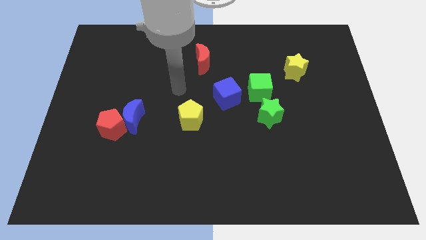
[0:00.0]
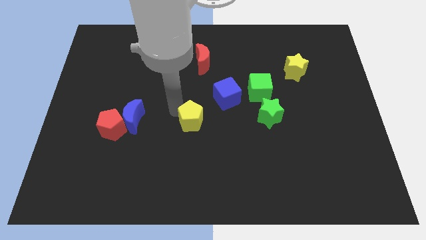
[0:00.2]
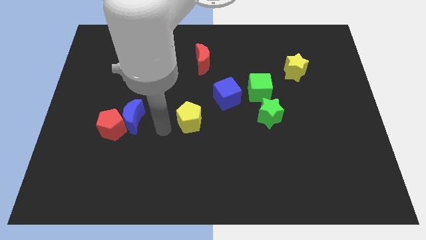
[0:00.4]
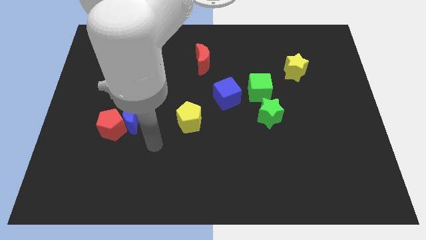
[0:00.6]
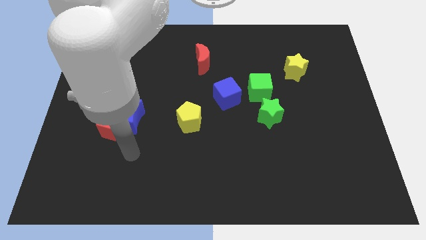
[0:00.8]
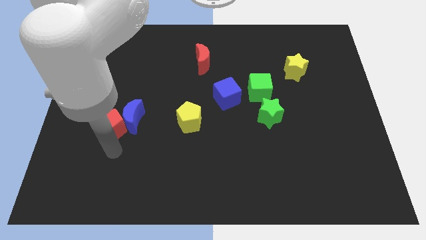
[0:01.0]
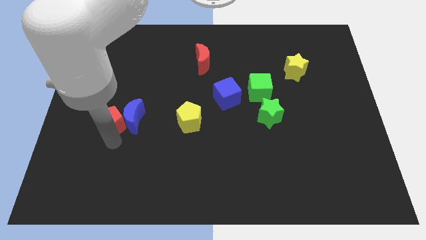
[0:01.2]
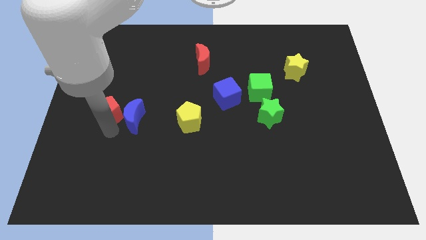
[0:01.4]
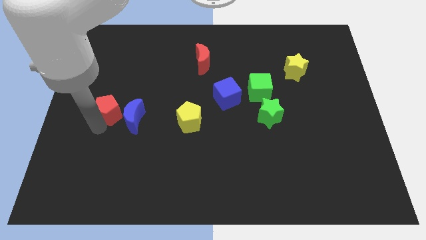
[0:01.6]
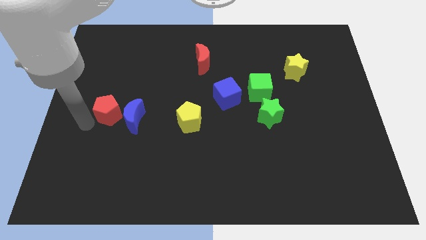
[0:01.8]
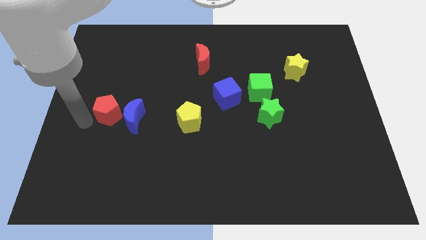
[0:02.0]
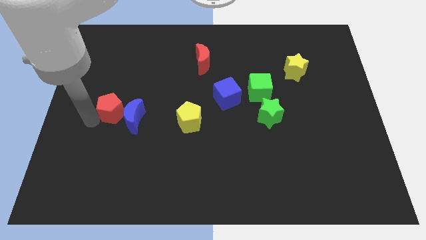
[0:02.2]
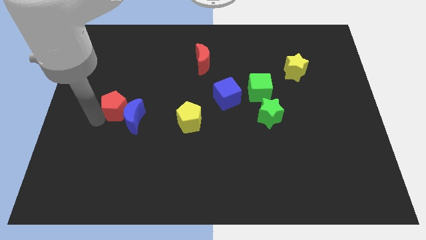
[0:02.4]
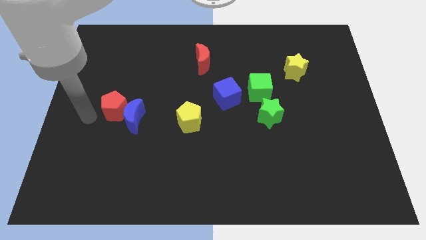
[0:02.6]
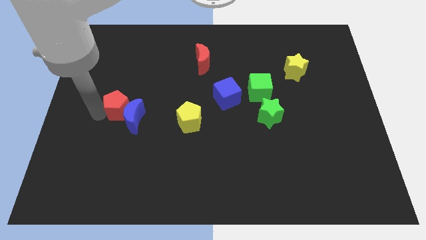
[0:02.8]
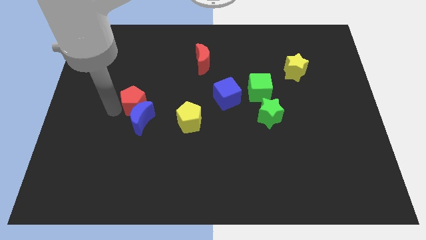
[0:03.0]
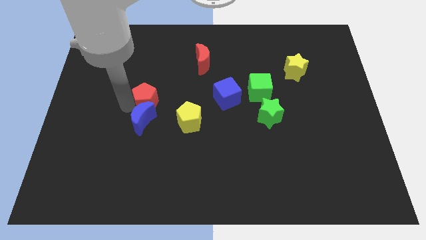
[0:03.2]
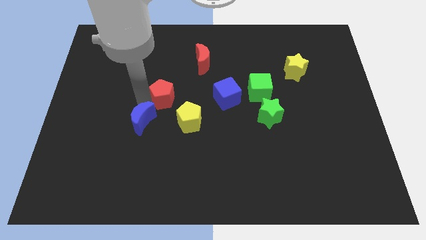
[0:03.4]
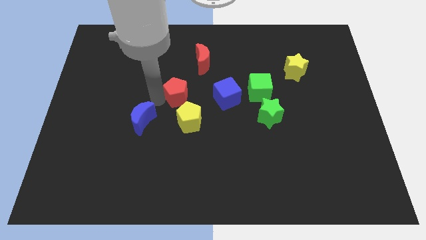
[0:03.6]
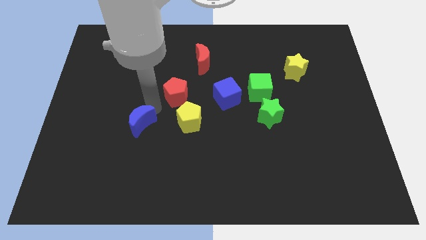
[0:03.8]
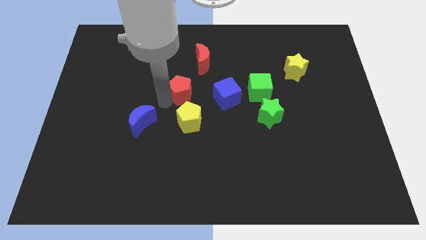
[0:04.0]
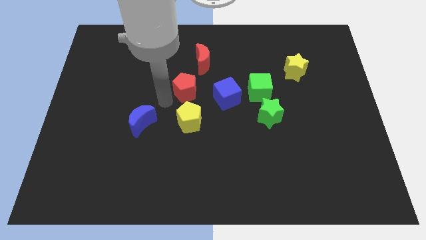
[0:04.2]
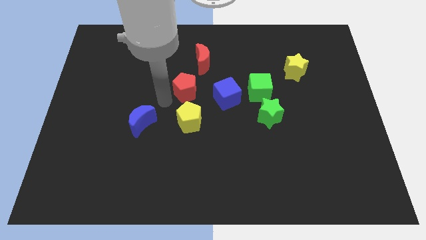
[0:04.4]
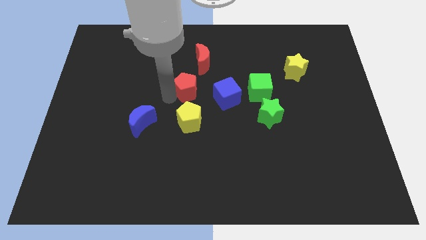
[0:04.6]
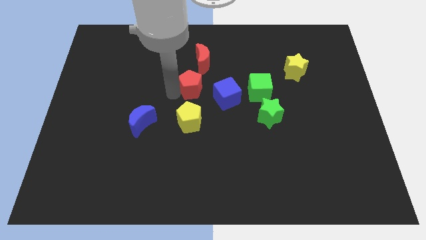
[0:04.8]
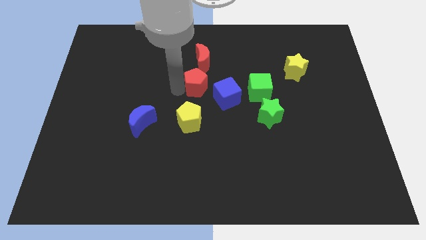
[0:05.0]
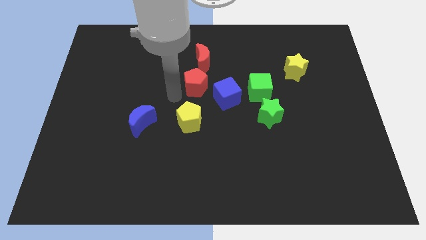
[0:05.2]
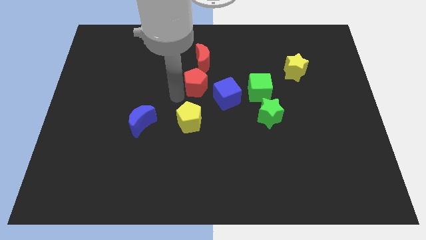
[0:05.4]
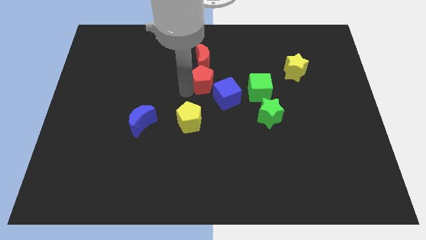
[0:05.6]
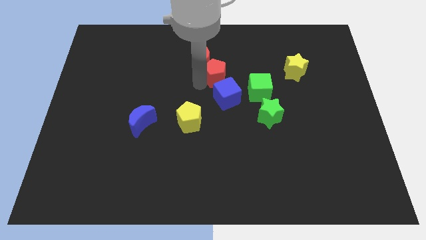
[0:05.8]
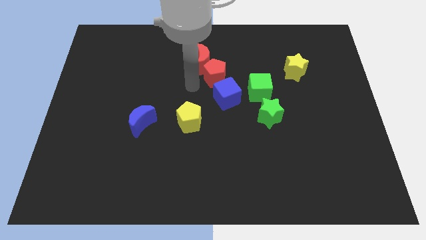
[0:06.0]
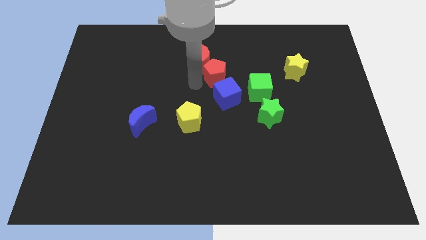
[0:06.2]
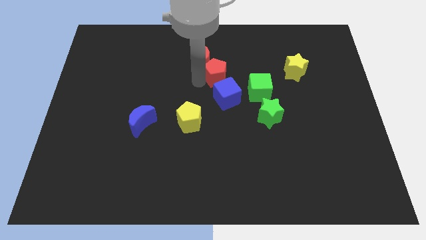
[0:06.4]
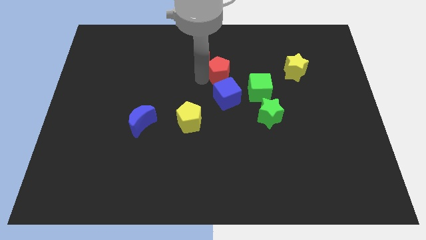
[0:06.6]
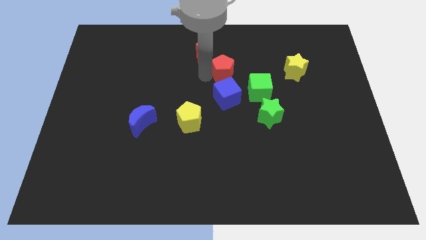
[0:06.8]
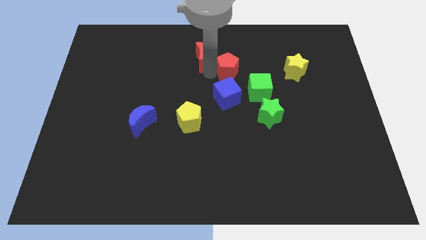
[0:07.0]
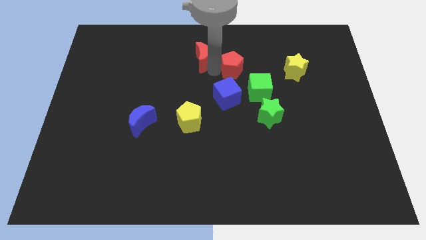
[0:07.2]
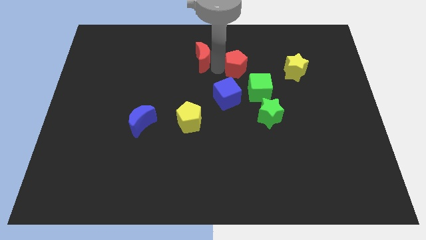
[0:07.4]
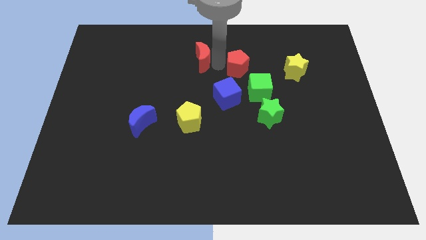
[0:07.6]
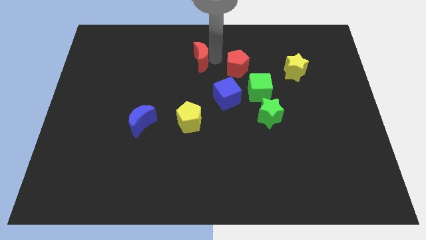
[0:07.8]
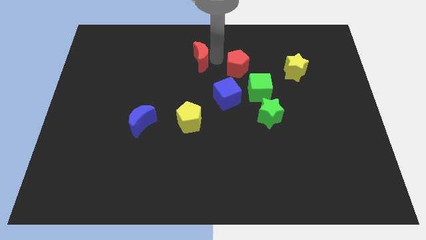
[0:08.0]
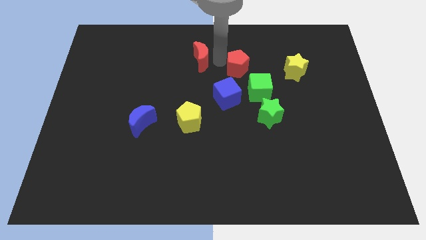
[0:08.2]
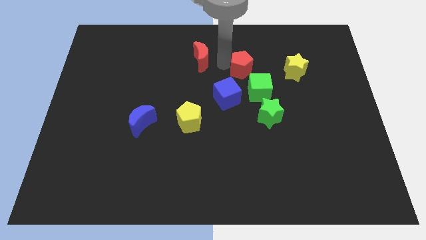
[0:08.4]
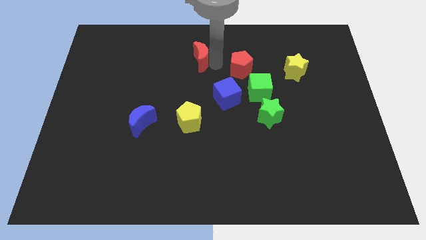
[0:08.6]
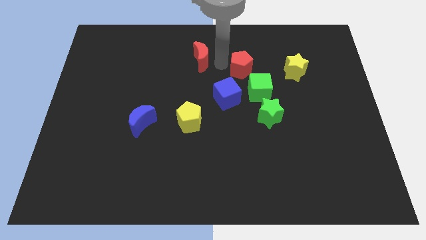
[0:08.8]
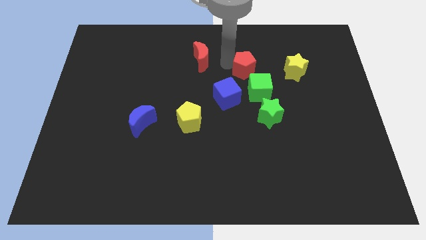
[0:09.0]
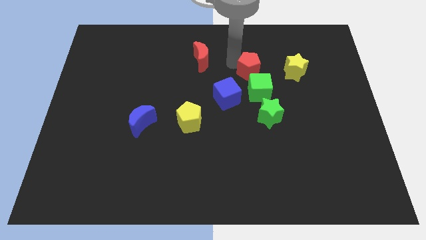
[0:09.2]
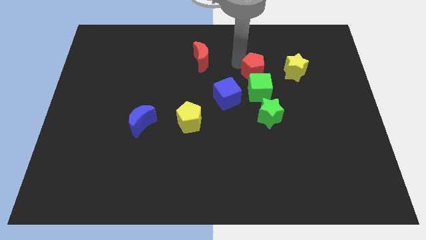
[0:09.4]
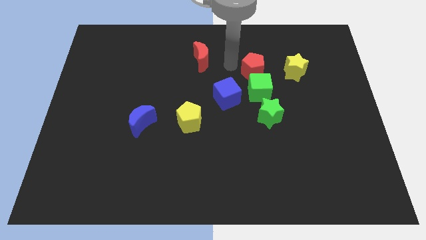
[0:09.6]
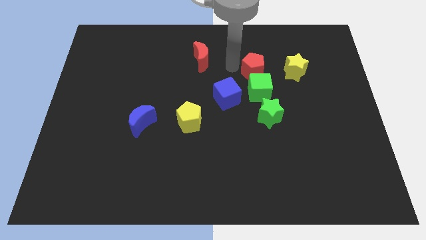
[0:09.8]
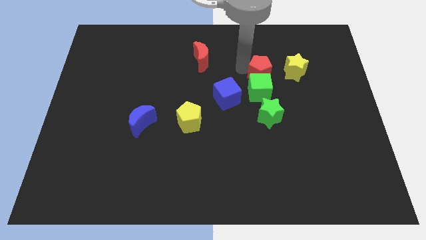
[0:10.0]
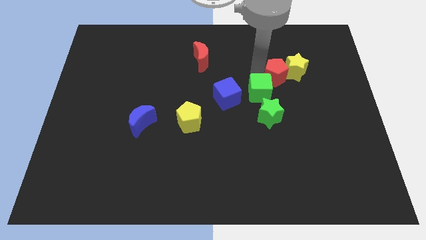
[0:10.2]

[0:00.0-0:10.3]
push the red pentagon to the yellow star

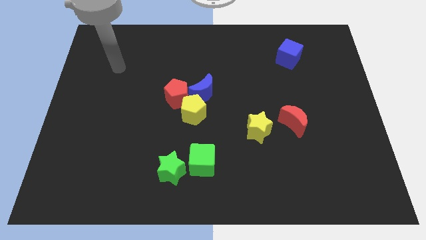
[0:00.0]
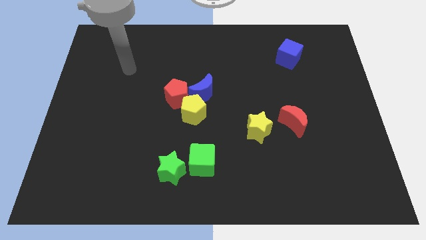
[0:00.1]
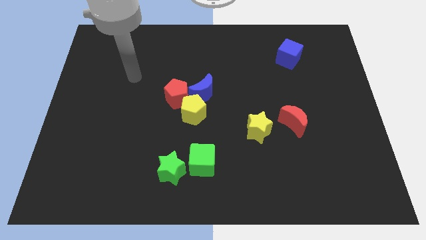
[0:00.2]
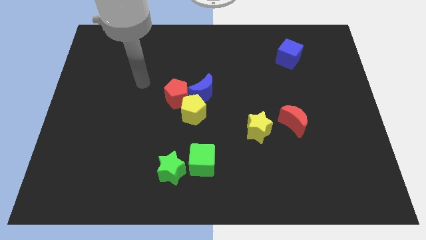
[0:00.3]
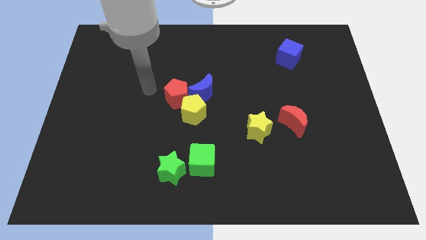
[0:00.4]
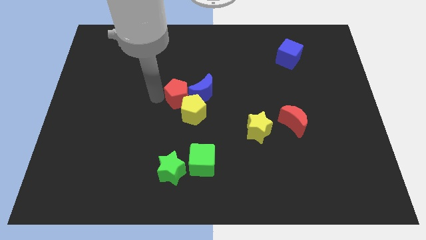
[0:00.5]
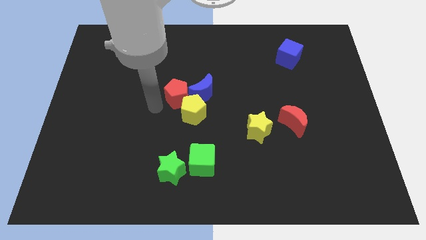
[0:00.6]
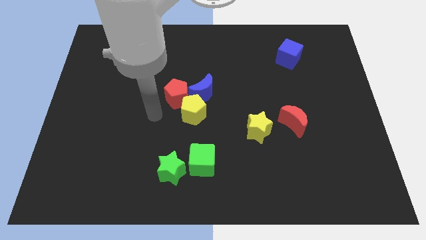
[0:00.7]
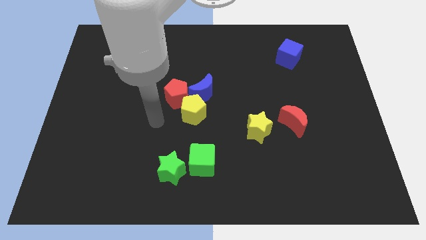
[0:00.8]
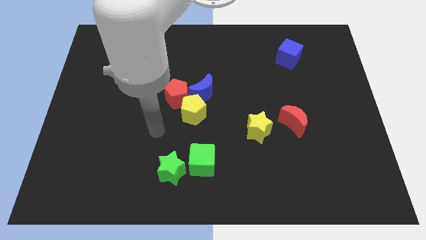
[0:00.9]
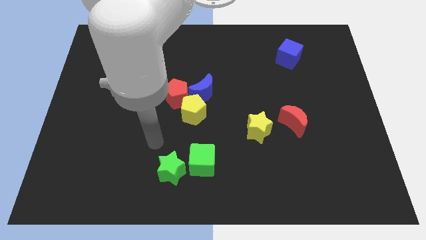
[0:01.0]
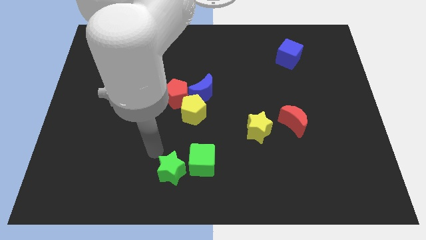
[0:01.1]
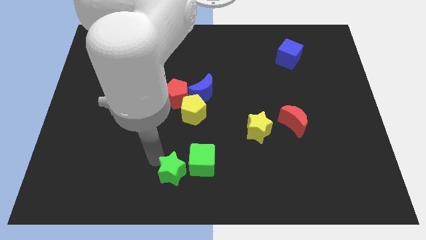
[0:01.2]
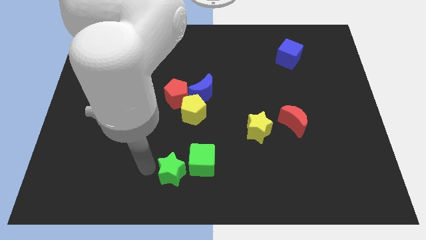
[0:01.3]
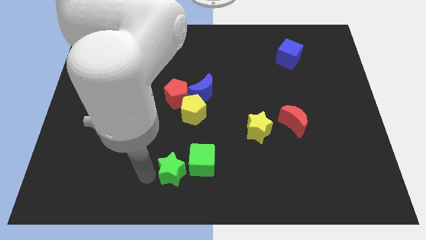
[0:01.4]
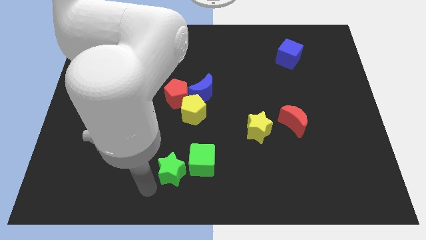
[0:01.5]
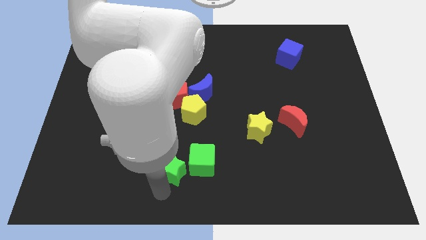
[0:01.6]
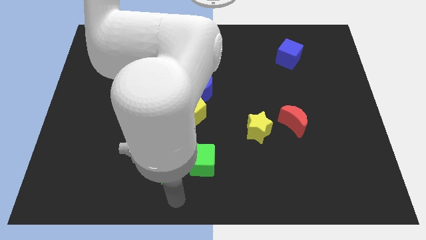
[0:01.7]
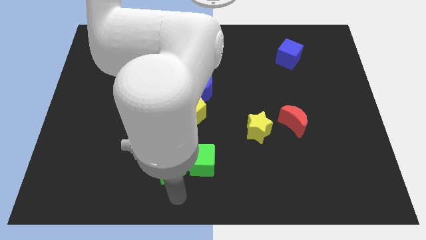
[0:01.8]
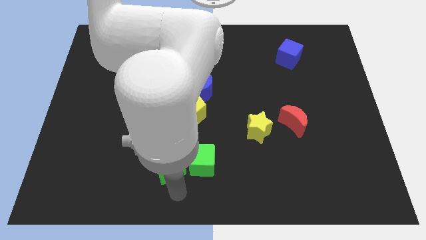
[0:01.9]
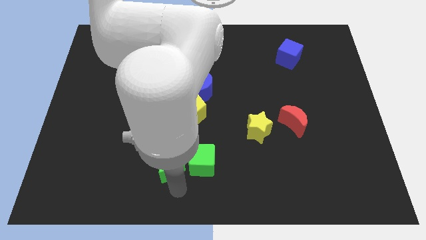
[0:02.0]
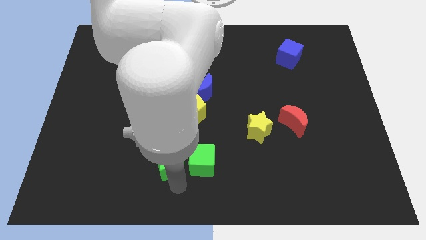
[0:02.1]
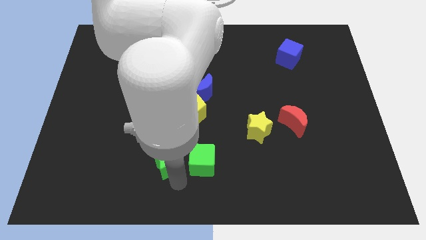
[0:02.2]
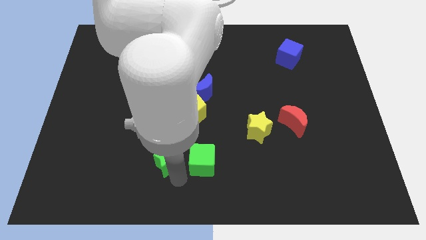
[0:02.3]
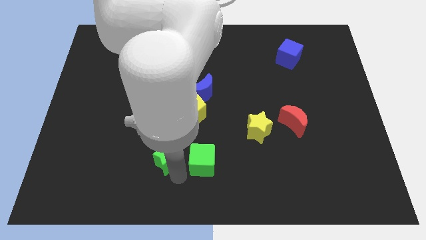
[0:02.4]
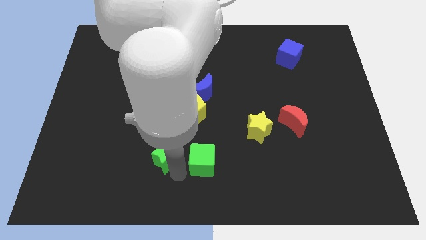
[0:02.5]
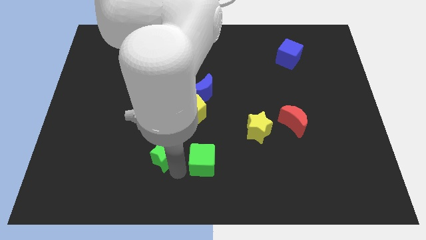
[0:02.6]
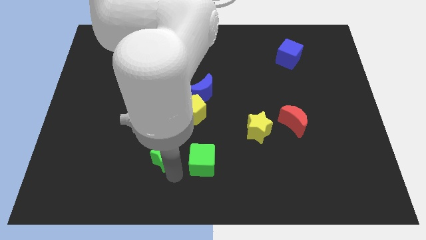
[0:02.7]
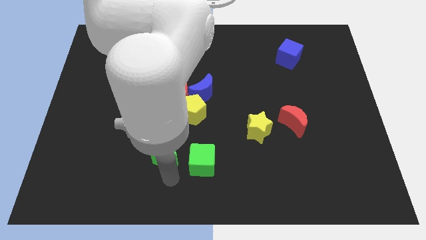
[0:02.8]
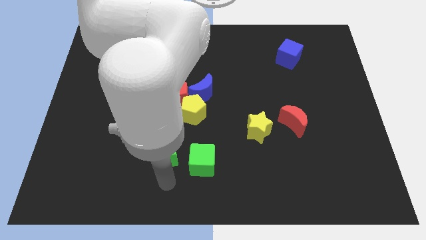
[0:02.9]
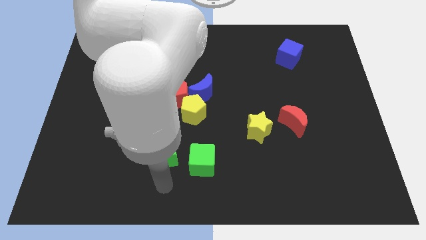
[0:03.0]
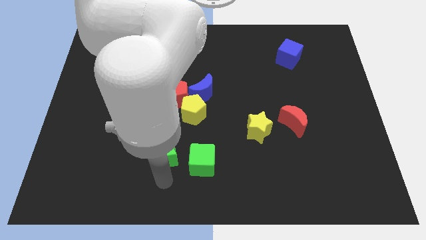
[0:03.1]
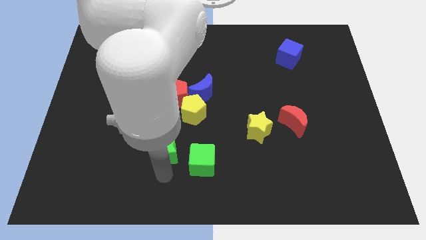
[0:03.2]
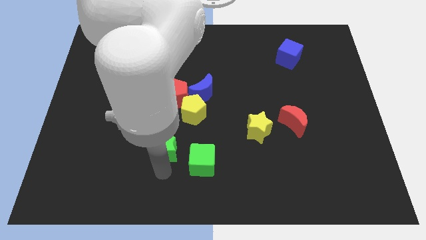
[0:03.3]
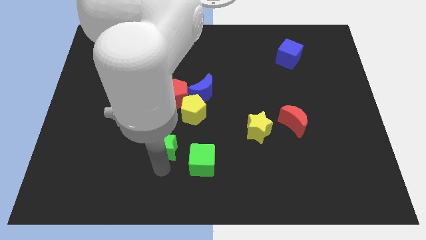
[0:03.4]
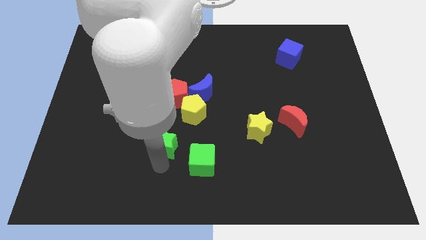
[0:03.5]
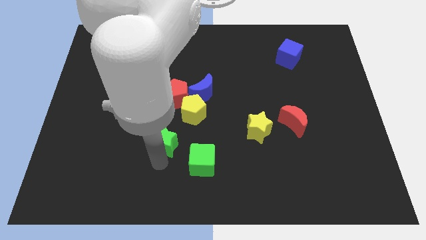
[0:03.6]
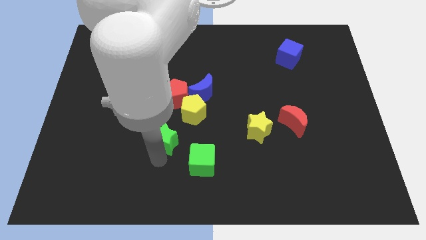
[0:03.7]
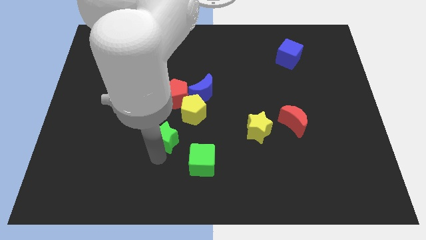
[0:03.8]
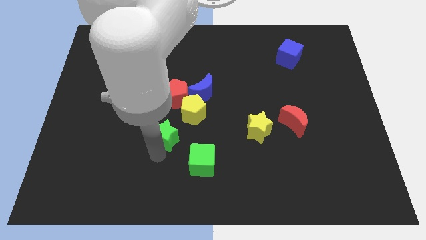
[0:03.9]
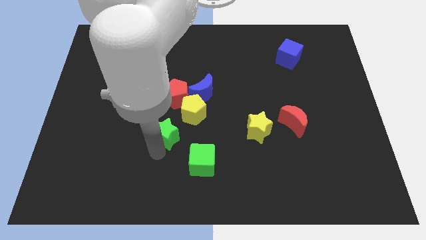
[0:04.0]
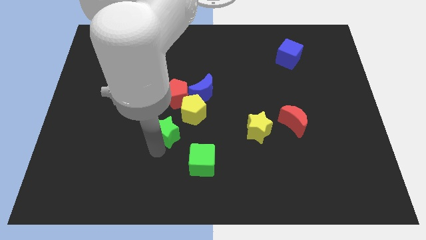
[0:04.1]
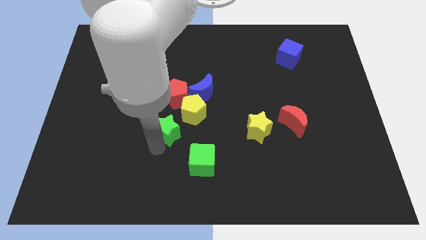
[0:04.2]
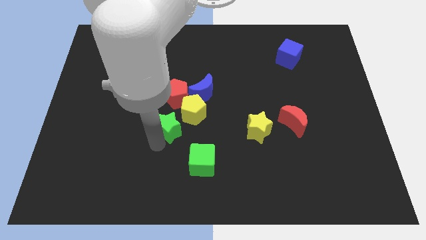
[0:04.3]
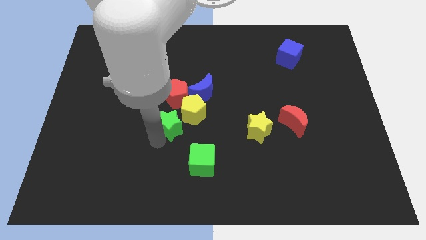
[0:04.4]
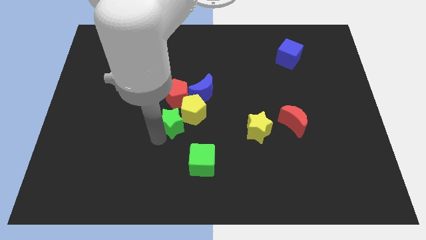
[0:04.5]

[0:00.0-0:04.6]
put the green star towards the yellow pentagon
